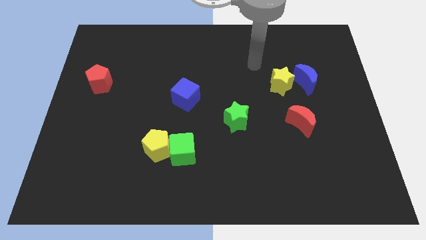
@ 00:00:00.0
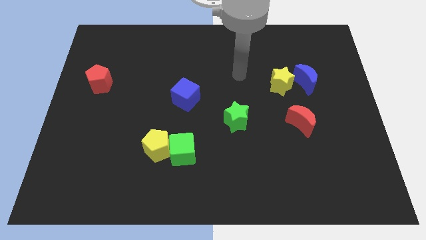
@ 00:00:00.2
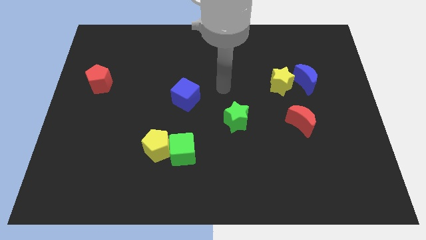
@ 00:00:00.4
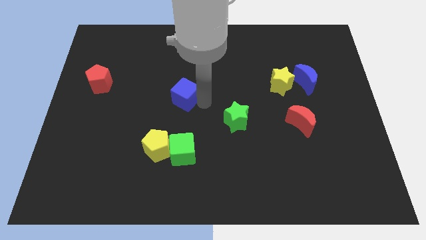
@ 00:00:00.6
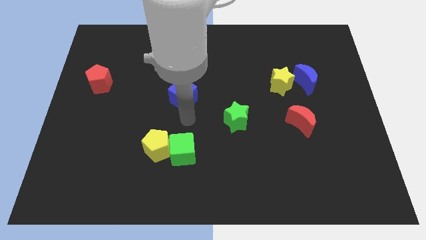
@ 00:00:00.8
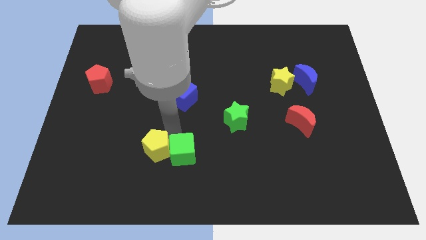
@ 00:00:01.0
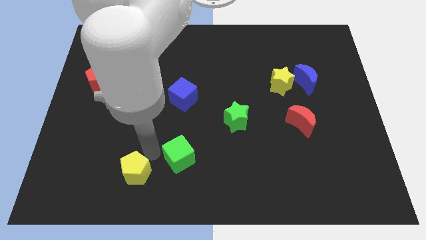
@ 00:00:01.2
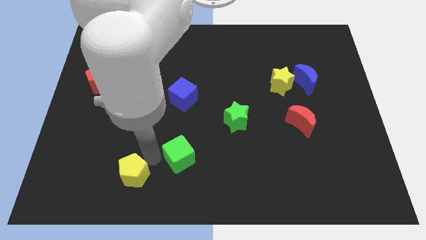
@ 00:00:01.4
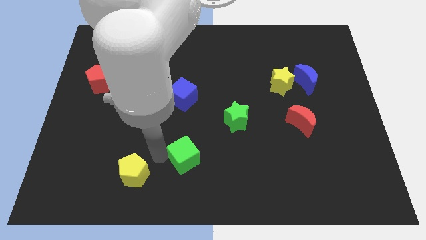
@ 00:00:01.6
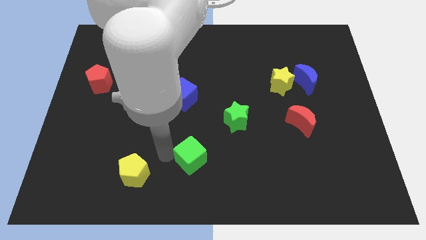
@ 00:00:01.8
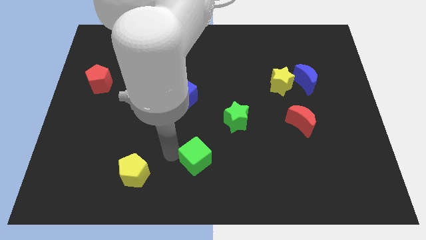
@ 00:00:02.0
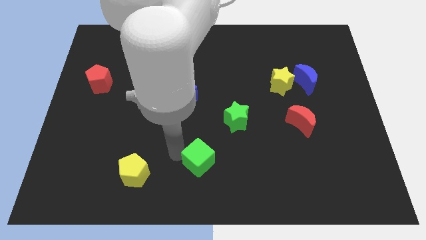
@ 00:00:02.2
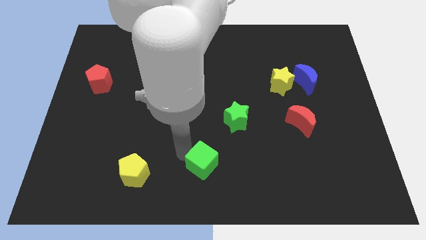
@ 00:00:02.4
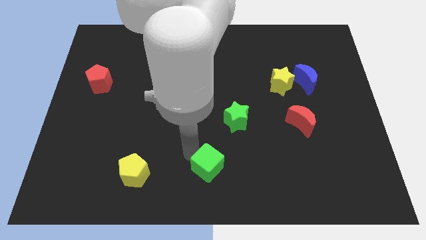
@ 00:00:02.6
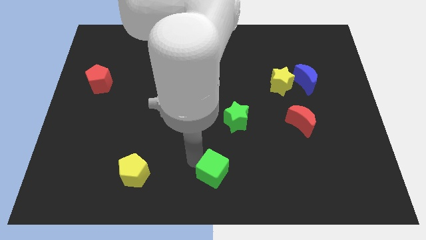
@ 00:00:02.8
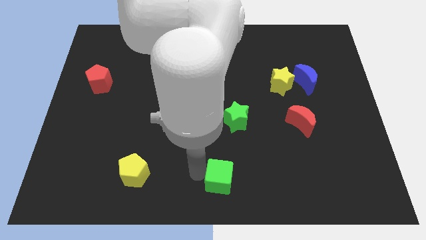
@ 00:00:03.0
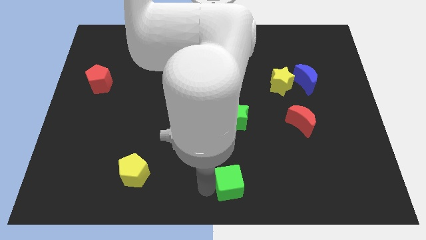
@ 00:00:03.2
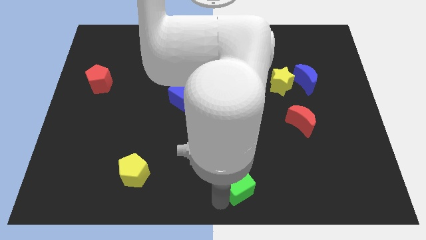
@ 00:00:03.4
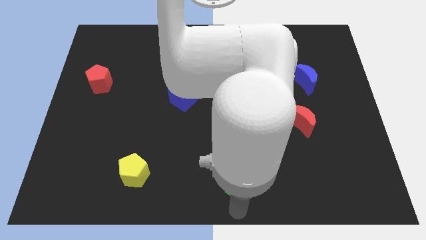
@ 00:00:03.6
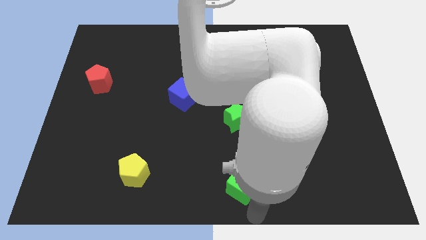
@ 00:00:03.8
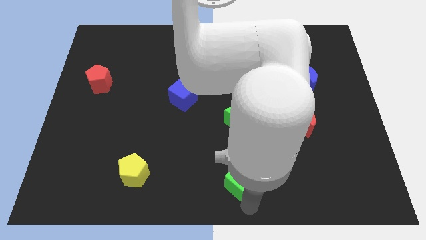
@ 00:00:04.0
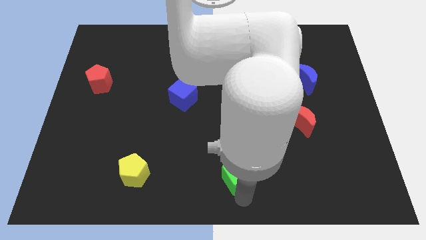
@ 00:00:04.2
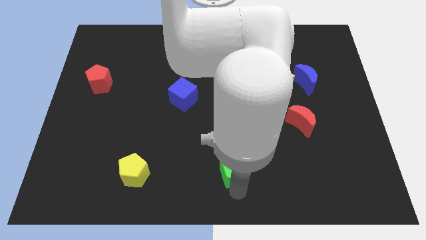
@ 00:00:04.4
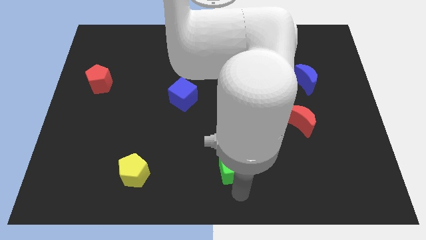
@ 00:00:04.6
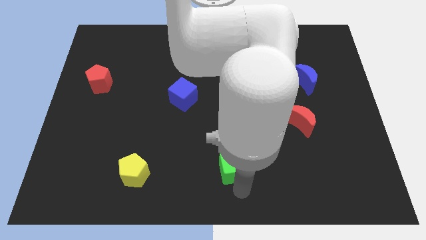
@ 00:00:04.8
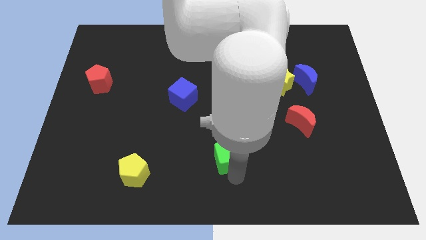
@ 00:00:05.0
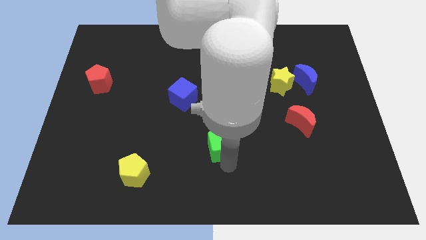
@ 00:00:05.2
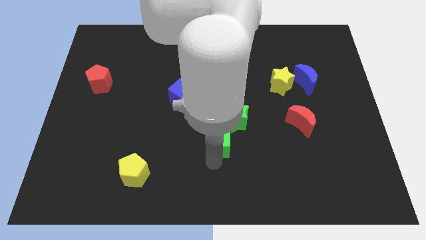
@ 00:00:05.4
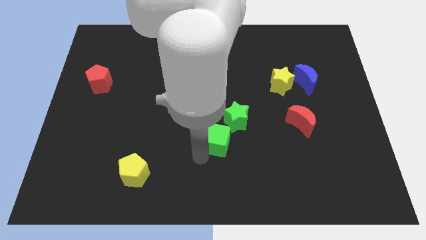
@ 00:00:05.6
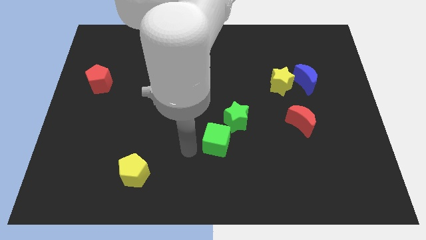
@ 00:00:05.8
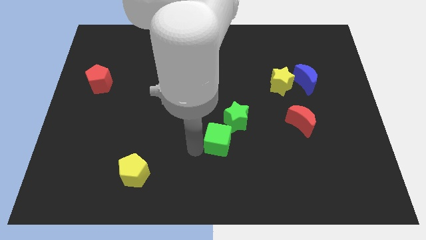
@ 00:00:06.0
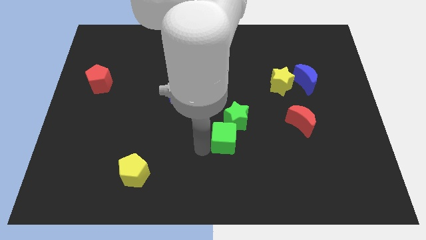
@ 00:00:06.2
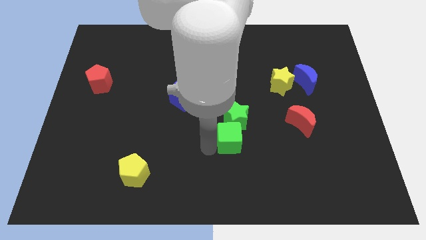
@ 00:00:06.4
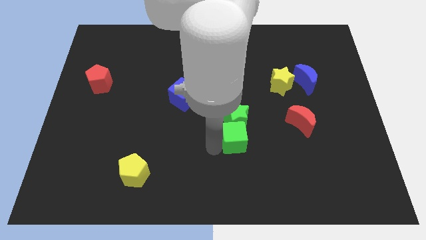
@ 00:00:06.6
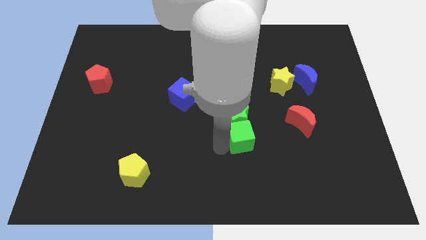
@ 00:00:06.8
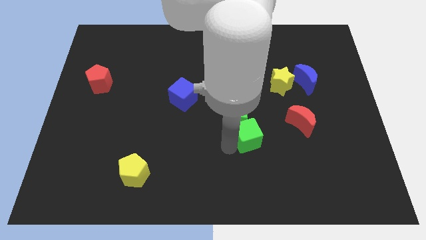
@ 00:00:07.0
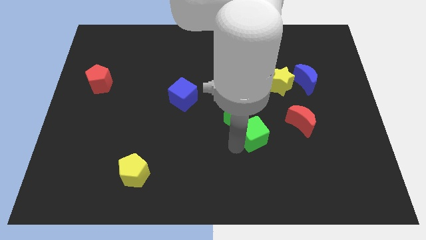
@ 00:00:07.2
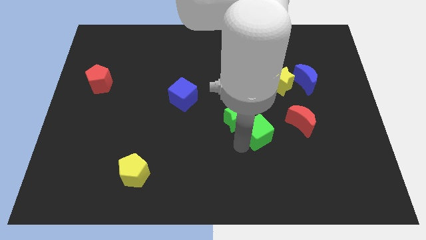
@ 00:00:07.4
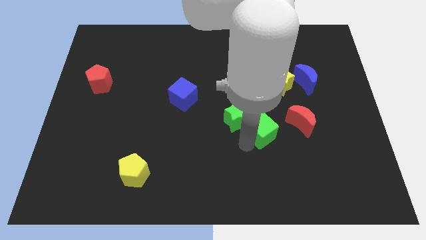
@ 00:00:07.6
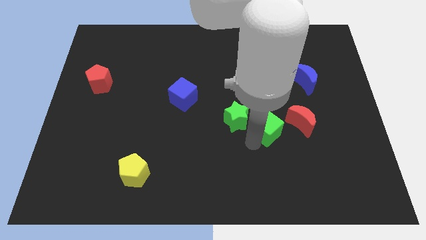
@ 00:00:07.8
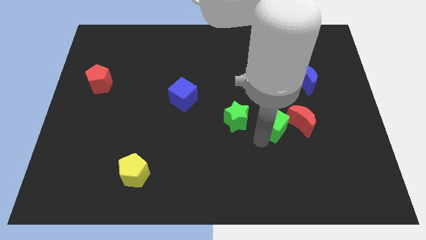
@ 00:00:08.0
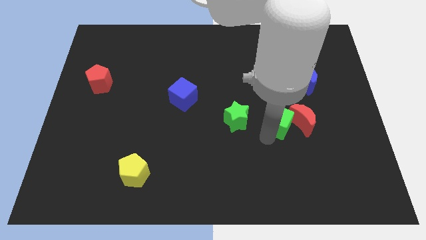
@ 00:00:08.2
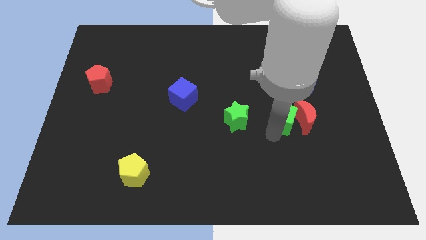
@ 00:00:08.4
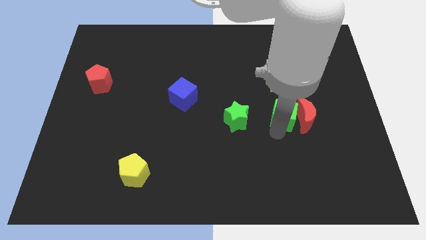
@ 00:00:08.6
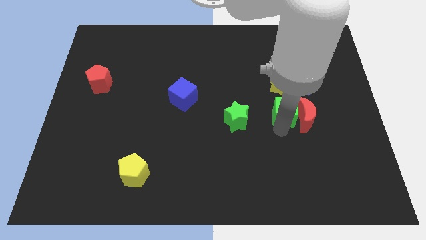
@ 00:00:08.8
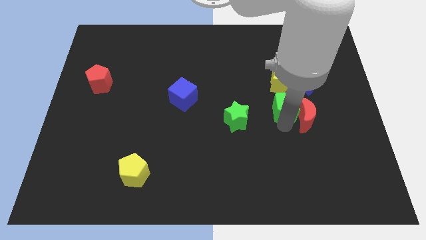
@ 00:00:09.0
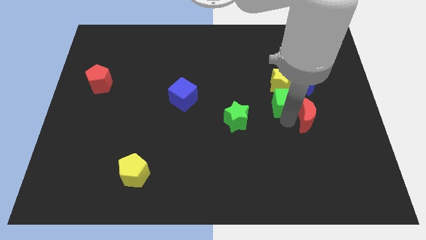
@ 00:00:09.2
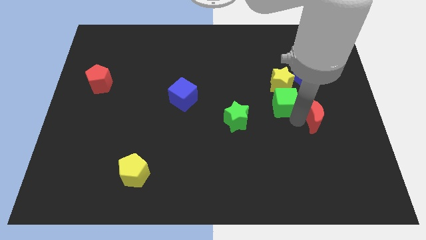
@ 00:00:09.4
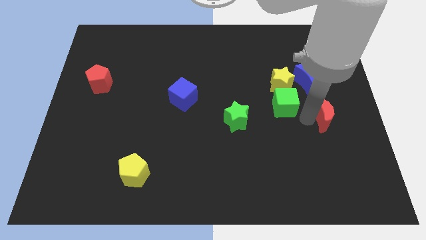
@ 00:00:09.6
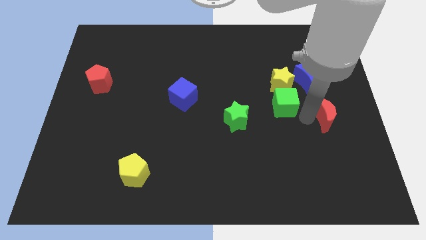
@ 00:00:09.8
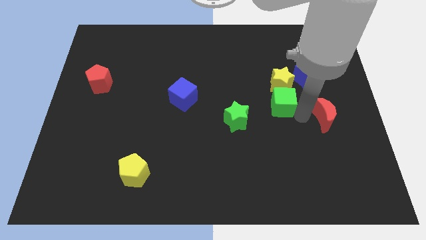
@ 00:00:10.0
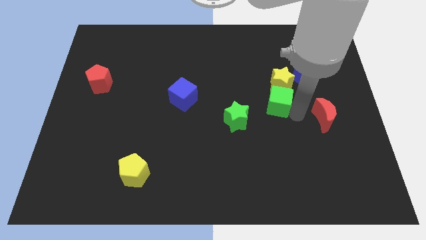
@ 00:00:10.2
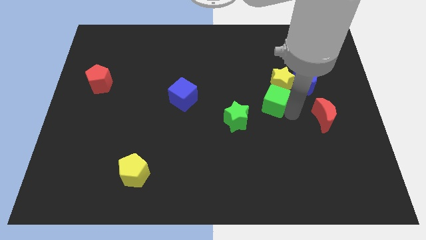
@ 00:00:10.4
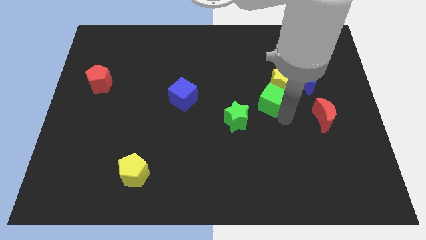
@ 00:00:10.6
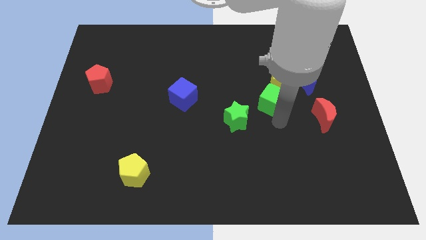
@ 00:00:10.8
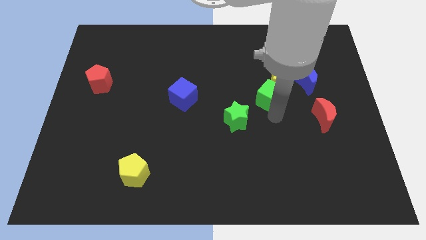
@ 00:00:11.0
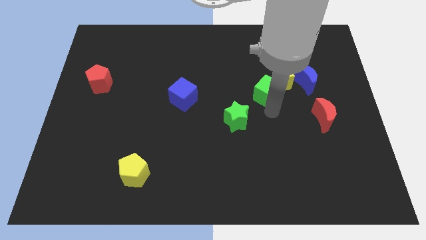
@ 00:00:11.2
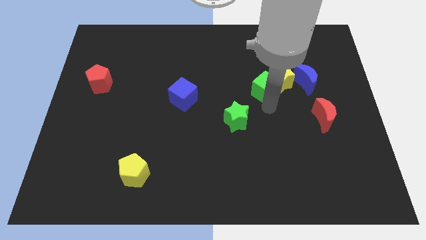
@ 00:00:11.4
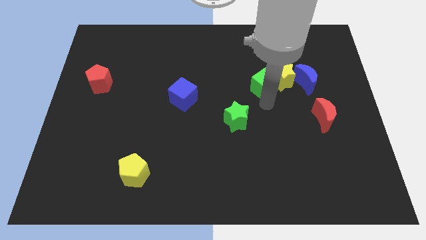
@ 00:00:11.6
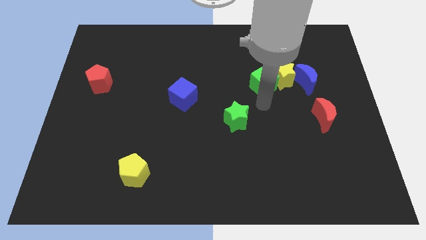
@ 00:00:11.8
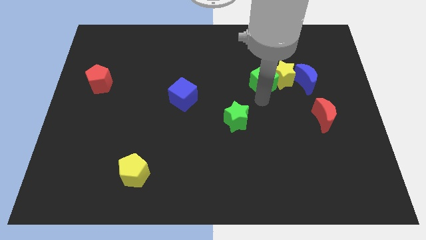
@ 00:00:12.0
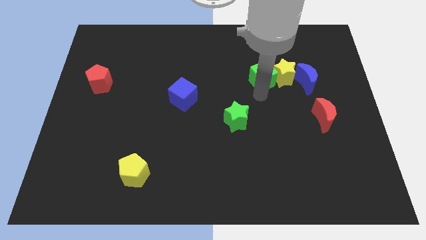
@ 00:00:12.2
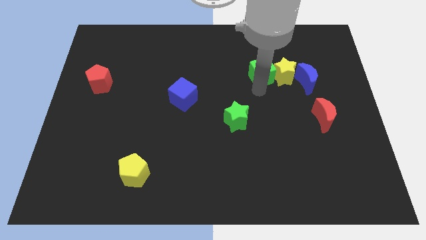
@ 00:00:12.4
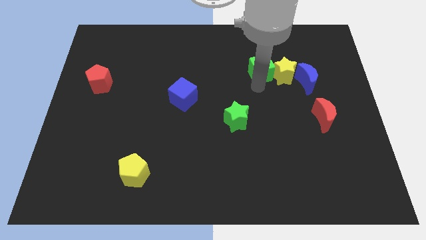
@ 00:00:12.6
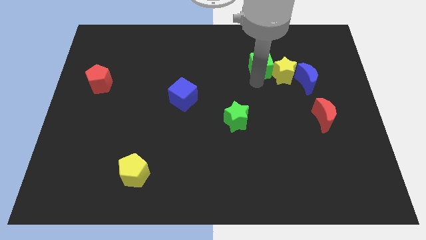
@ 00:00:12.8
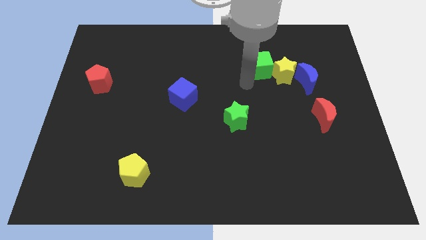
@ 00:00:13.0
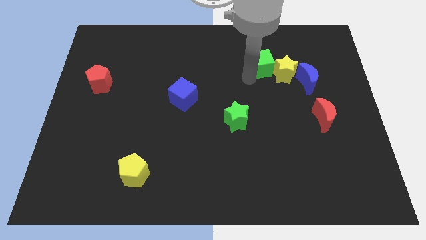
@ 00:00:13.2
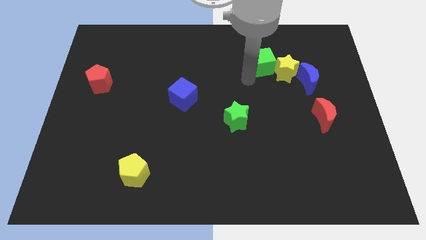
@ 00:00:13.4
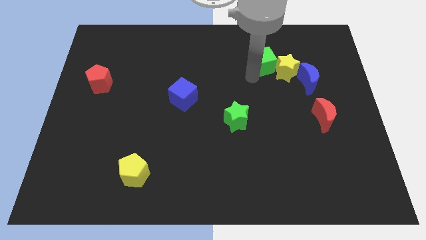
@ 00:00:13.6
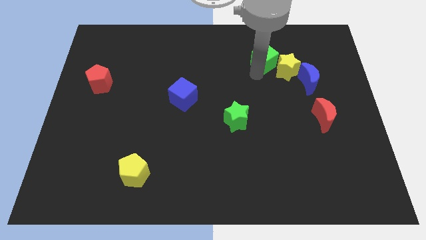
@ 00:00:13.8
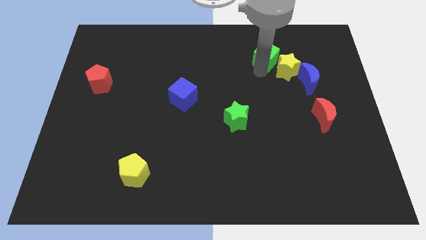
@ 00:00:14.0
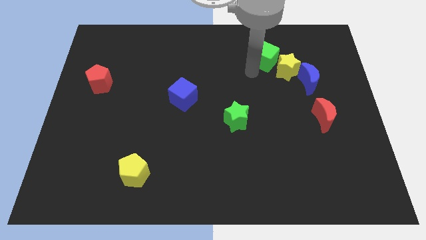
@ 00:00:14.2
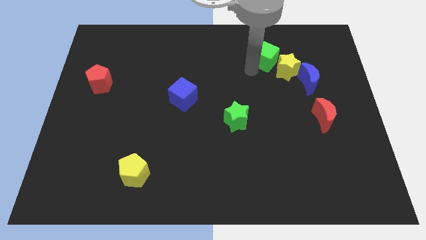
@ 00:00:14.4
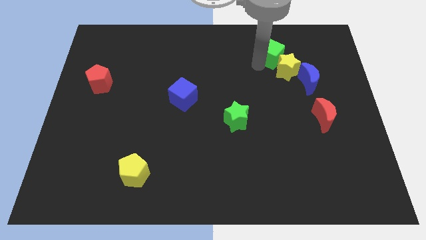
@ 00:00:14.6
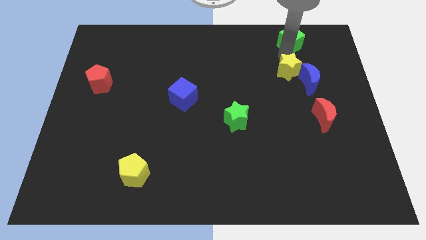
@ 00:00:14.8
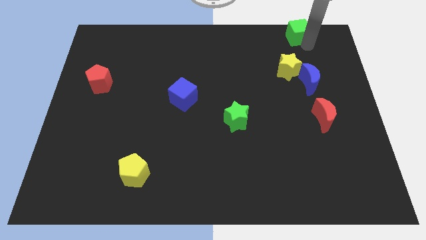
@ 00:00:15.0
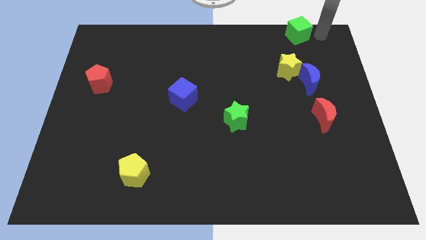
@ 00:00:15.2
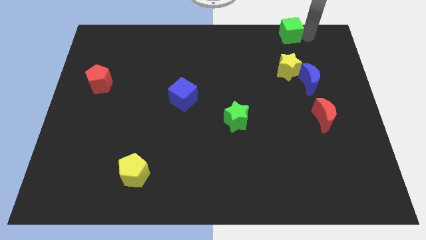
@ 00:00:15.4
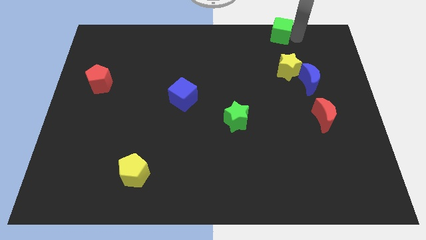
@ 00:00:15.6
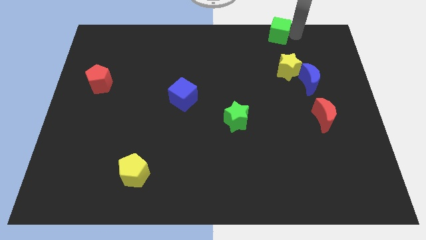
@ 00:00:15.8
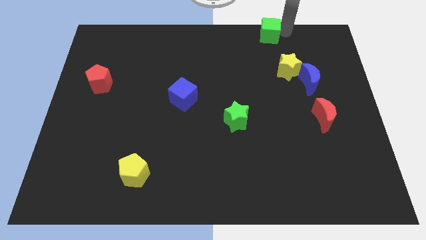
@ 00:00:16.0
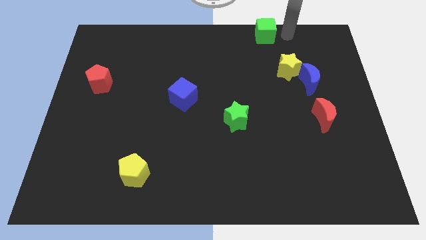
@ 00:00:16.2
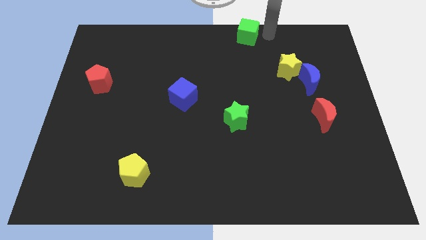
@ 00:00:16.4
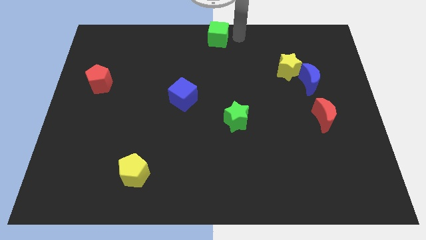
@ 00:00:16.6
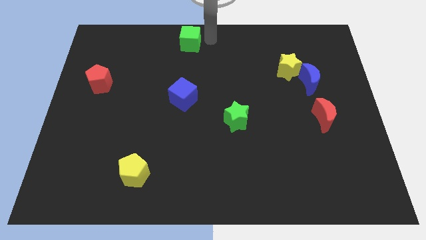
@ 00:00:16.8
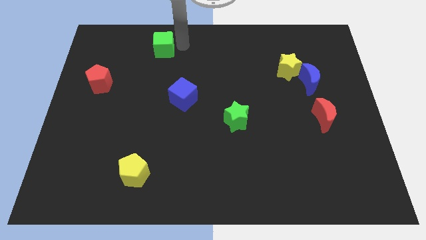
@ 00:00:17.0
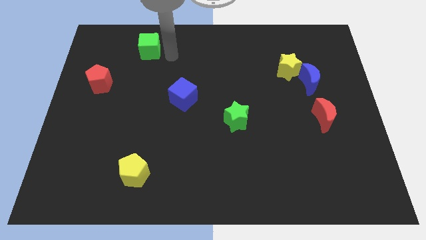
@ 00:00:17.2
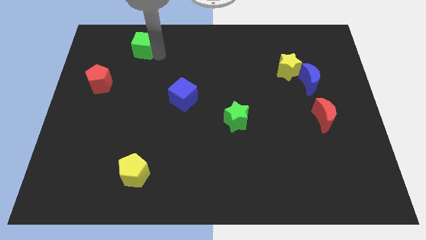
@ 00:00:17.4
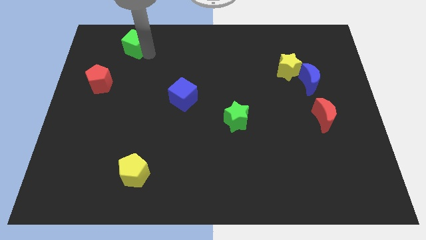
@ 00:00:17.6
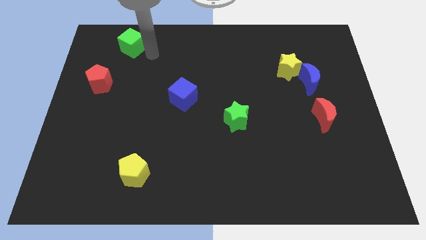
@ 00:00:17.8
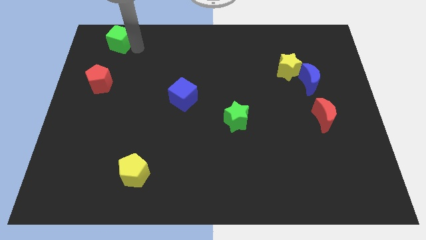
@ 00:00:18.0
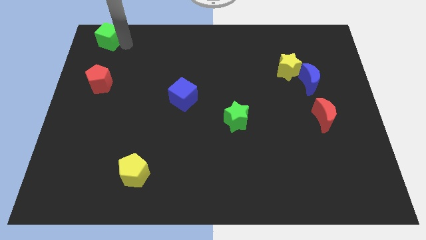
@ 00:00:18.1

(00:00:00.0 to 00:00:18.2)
slide the green cube to the upper left corner
